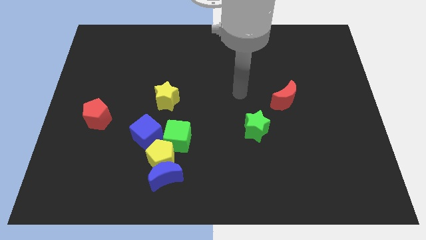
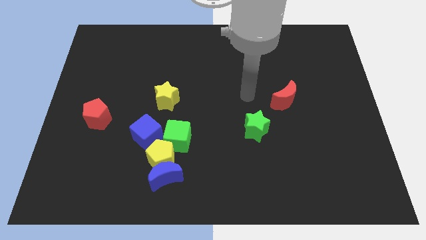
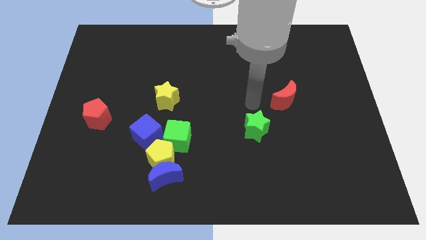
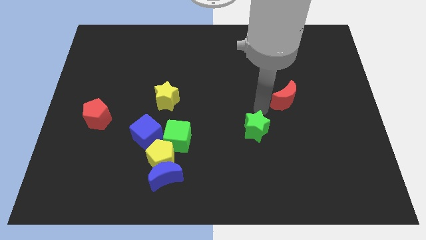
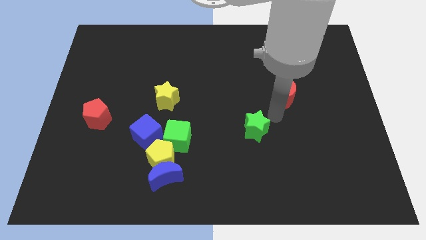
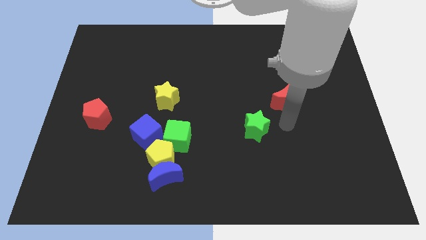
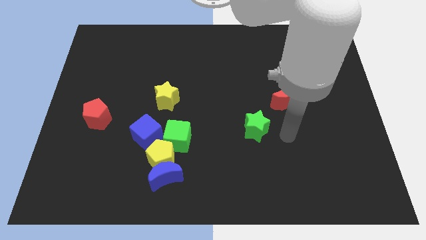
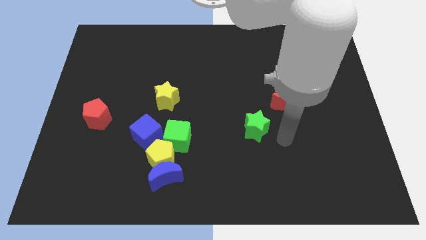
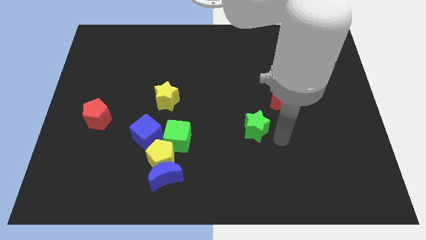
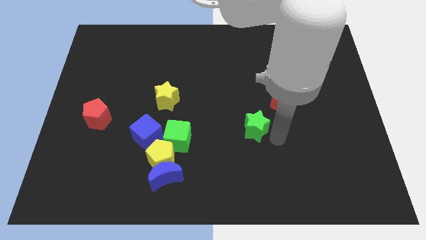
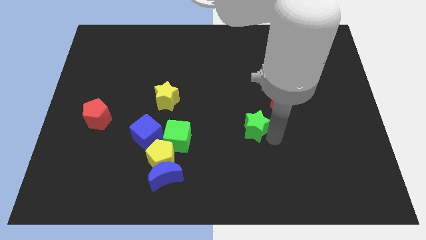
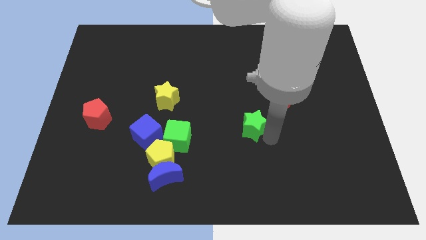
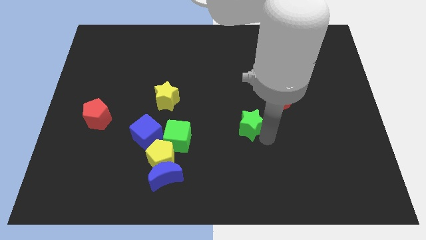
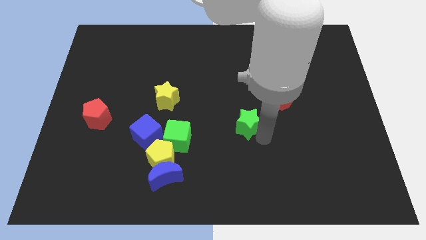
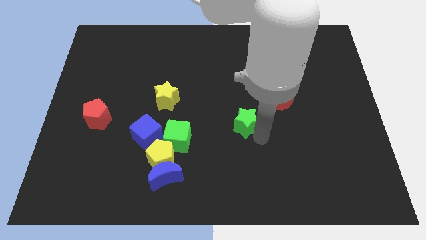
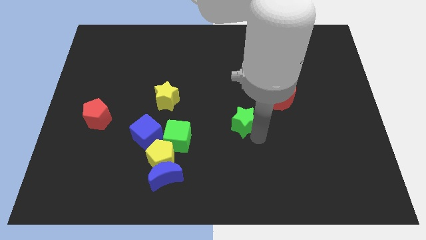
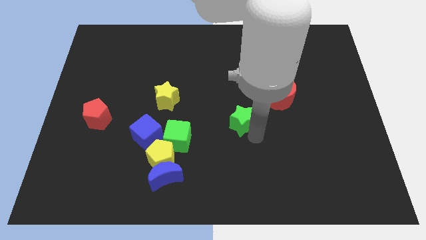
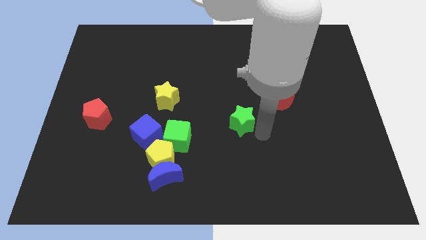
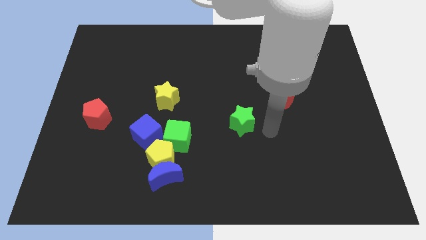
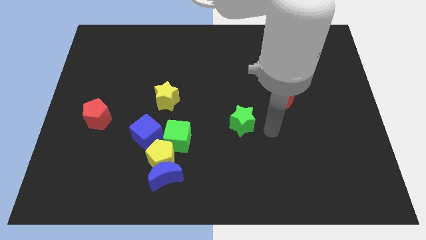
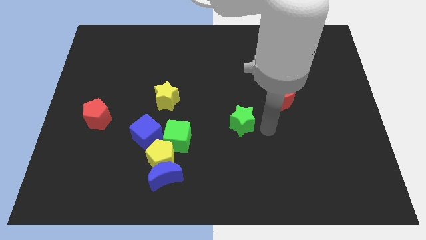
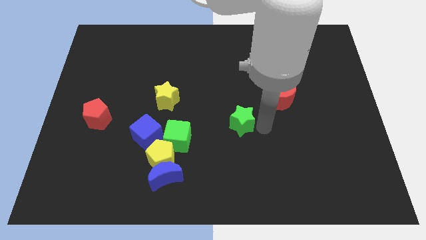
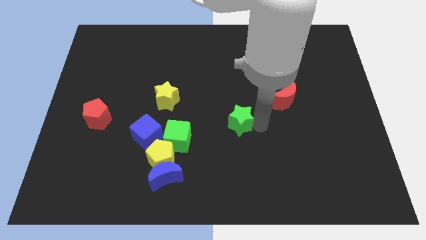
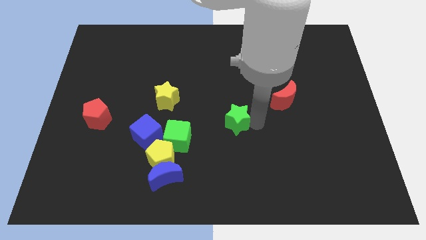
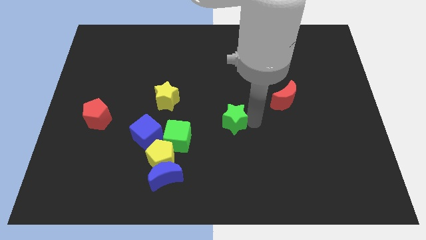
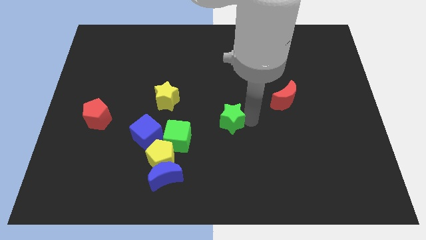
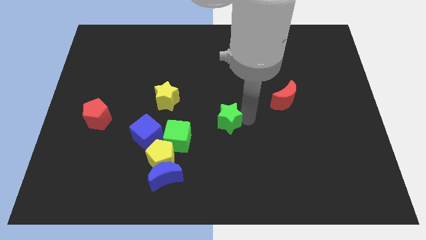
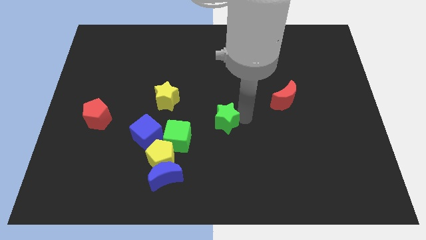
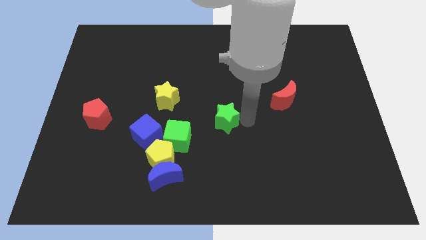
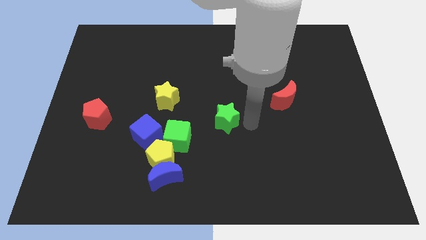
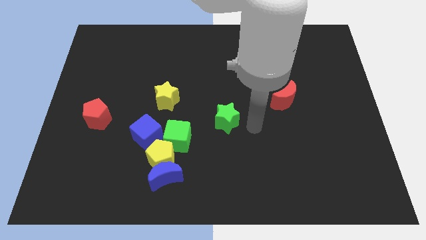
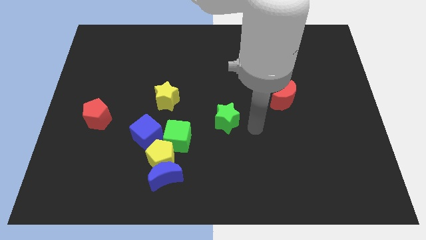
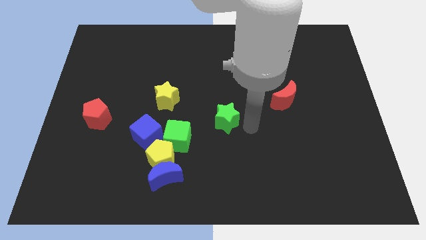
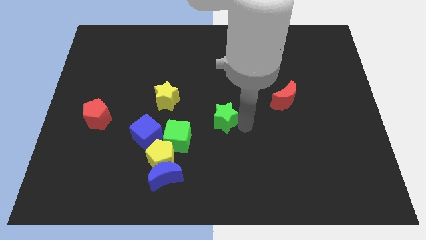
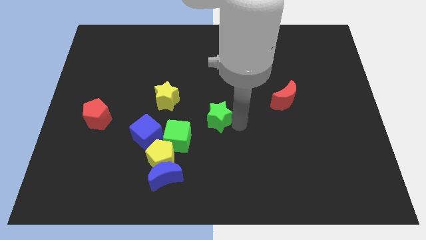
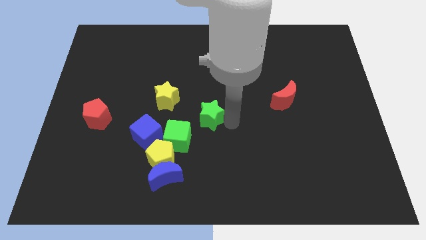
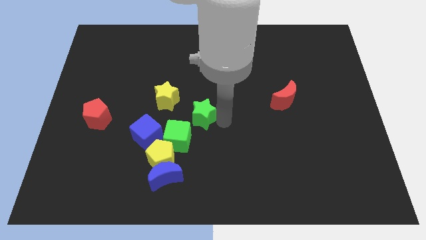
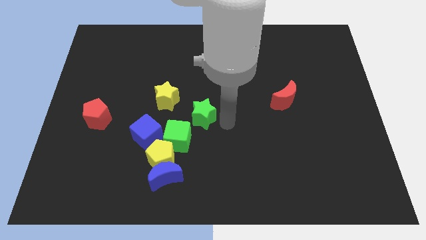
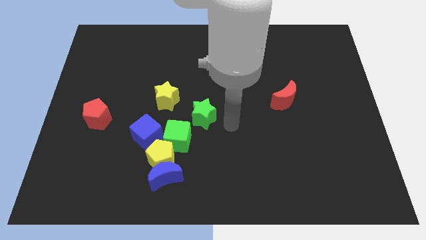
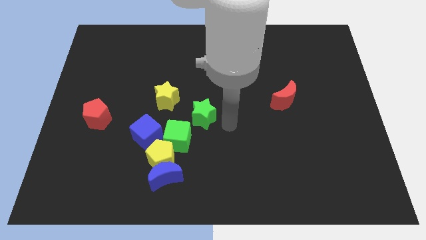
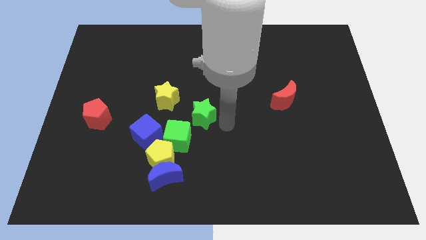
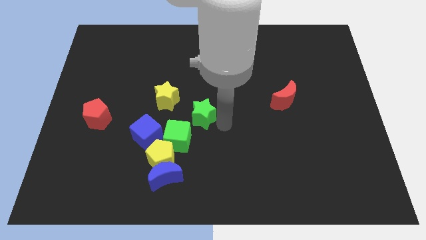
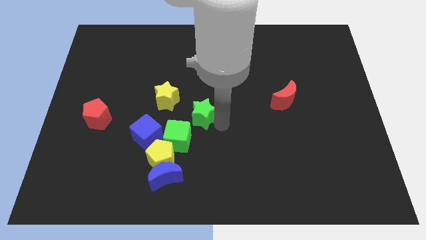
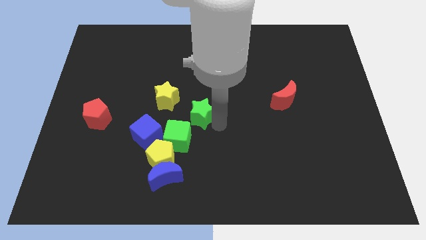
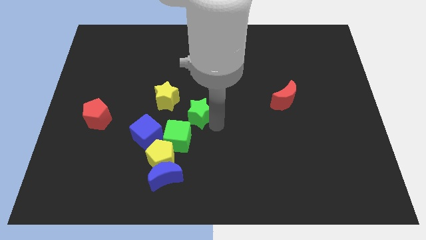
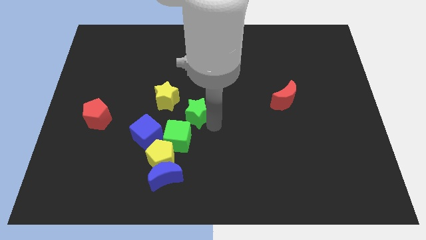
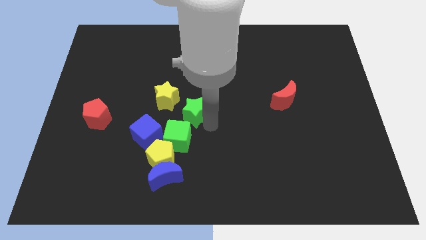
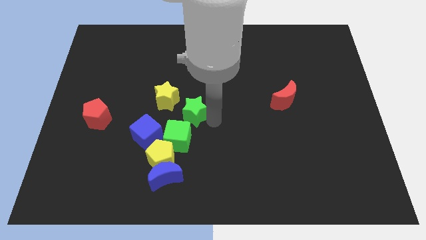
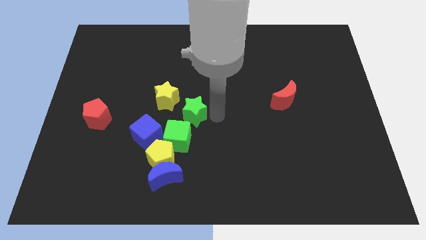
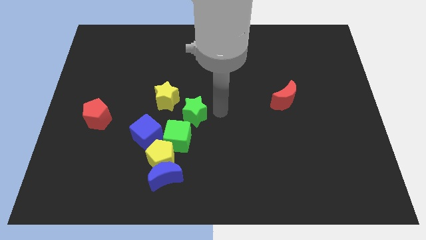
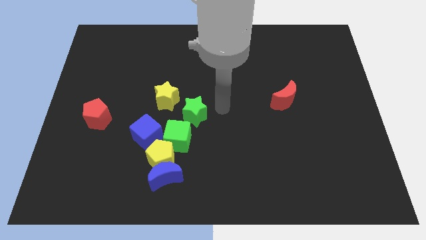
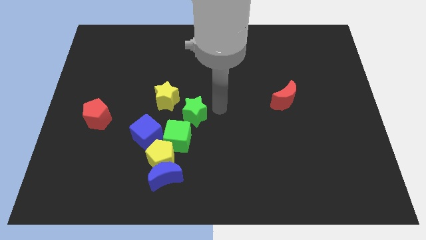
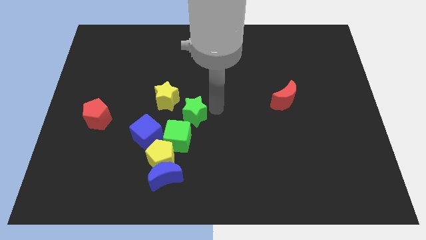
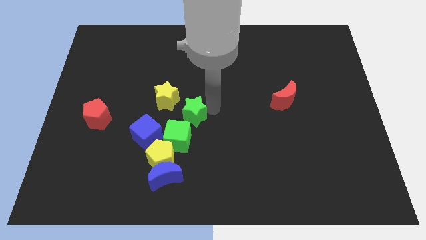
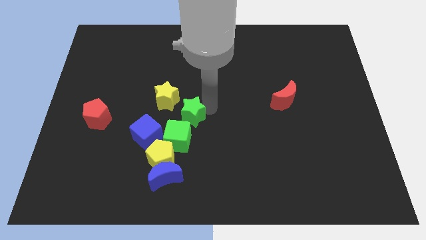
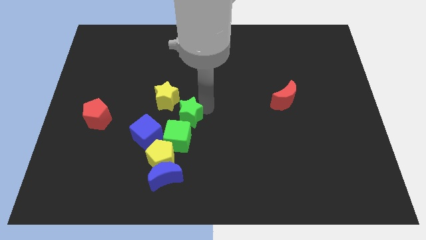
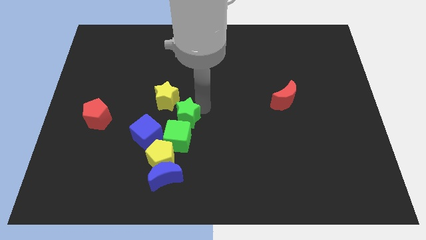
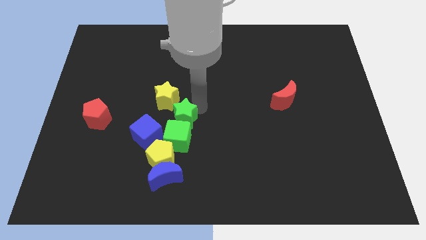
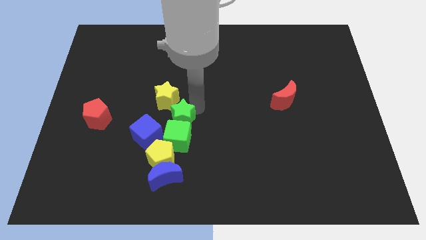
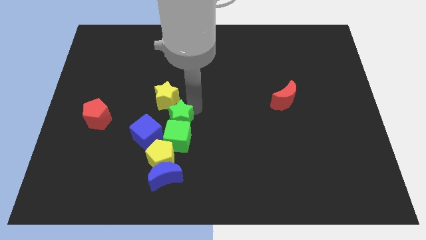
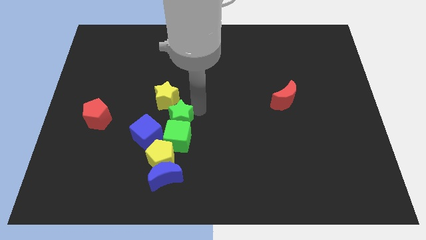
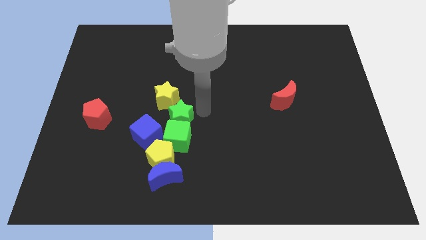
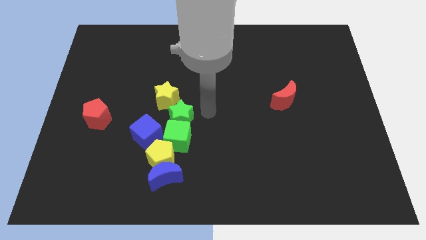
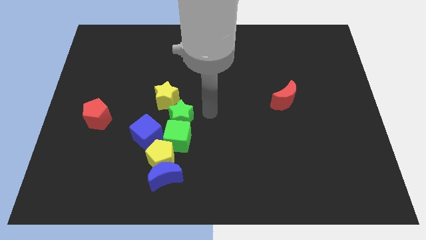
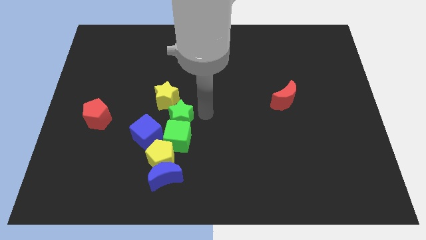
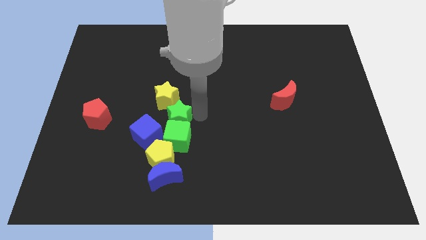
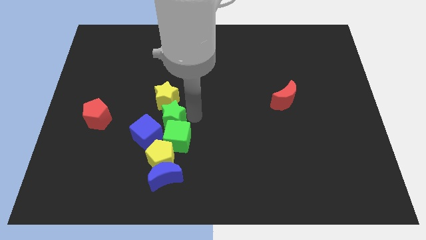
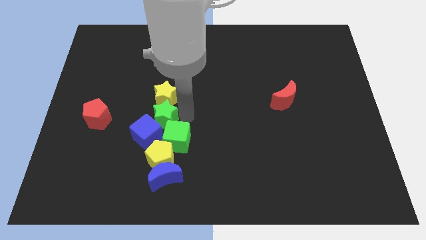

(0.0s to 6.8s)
put the green star towards the blue cube

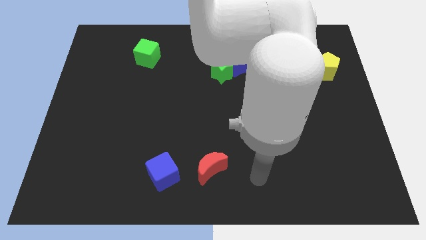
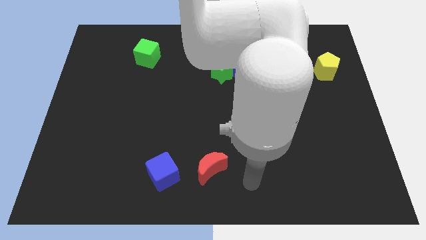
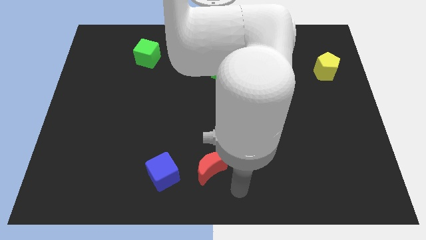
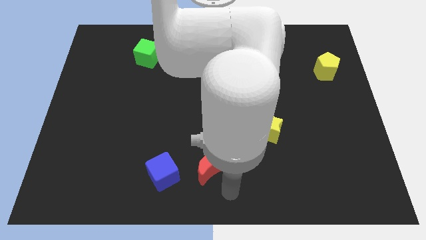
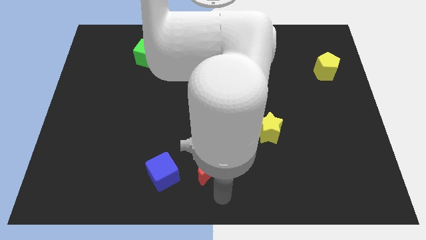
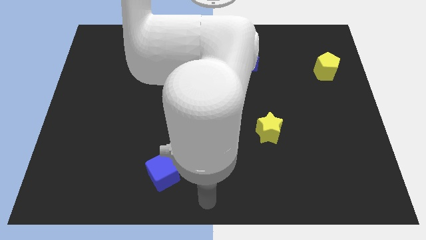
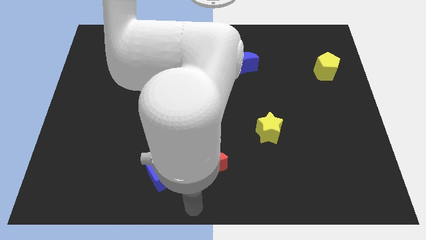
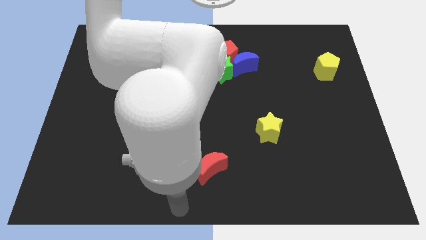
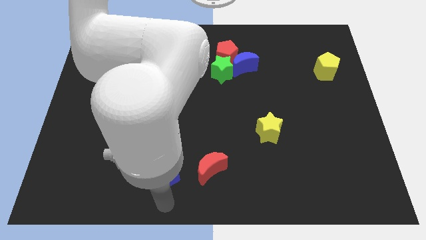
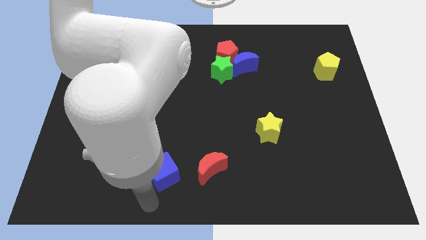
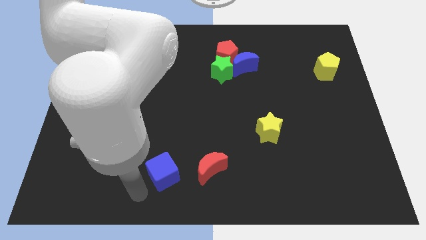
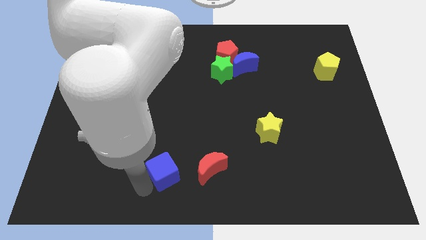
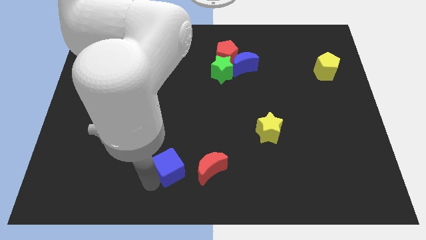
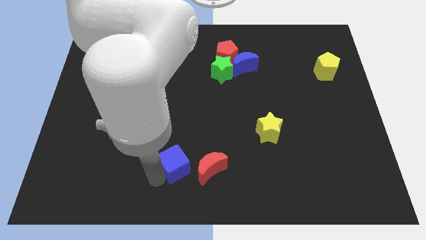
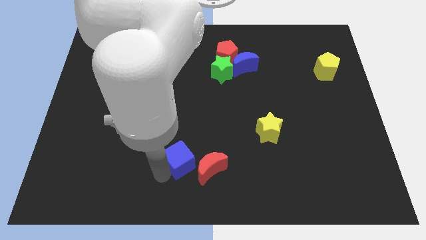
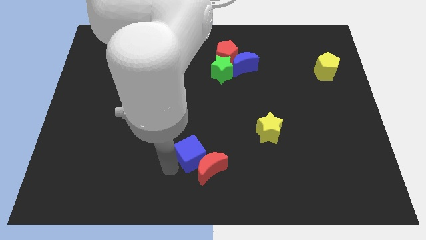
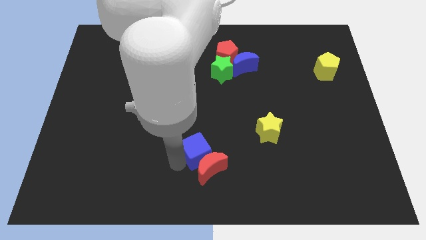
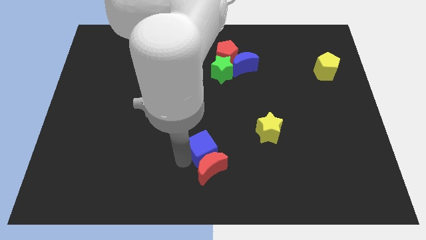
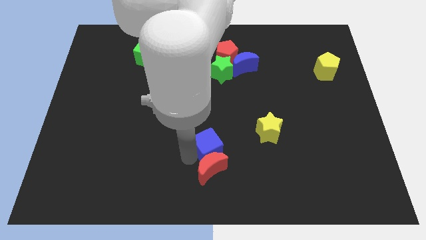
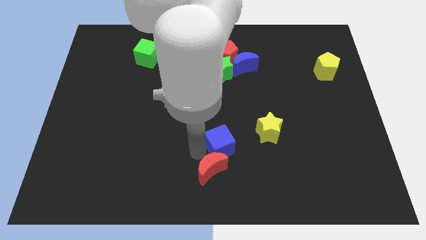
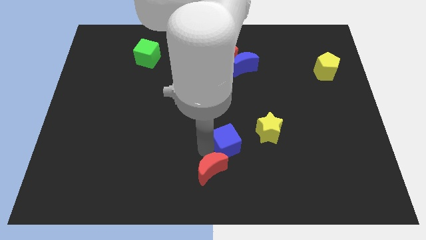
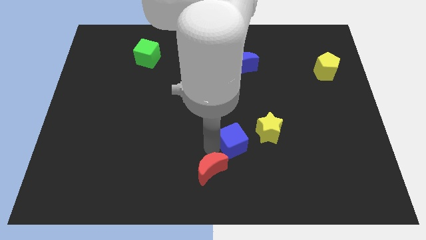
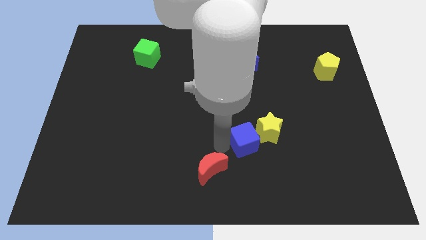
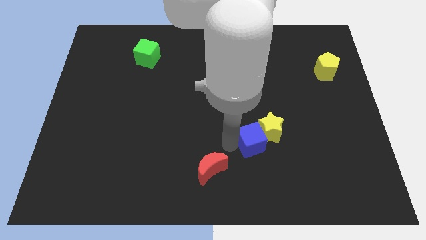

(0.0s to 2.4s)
move the blue cube to the yellow star
